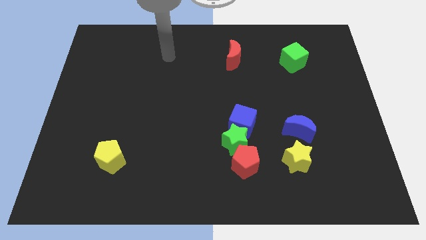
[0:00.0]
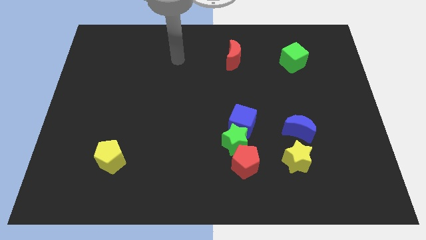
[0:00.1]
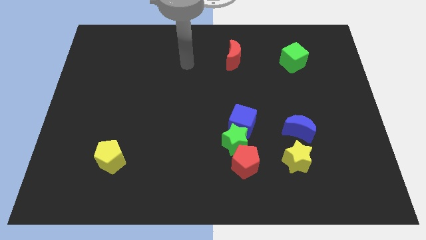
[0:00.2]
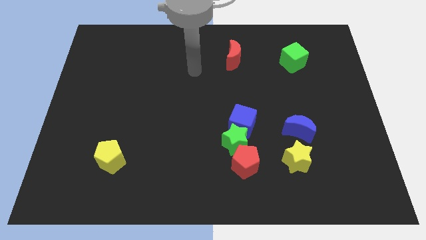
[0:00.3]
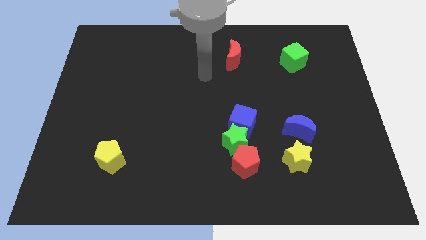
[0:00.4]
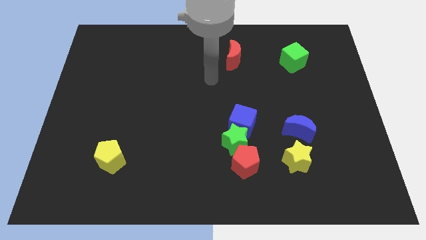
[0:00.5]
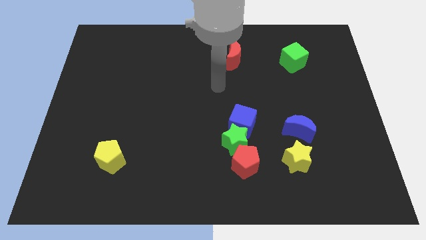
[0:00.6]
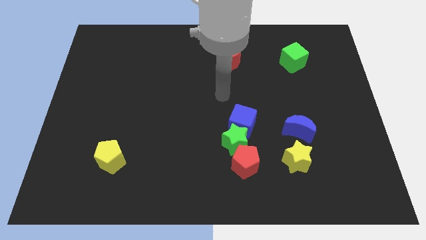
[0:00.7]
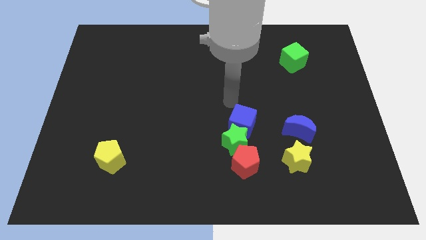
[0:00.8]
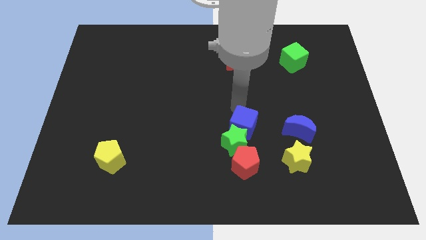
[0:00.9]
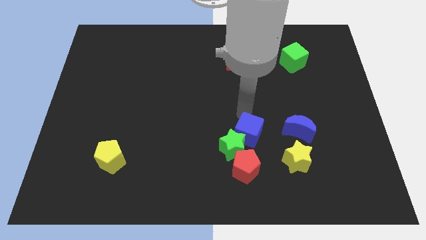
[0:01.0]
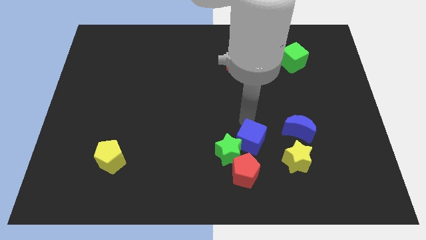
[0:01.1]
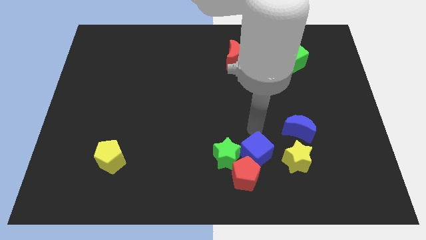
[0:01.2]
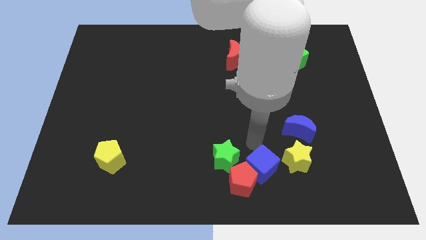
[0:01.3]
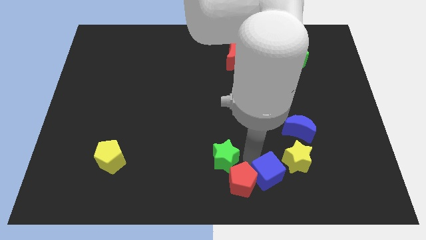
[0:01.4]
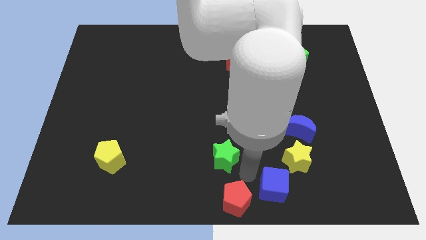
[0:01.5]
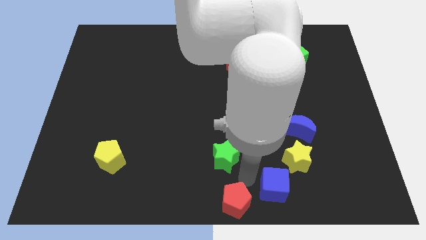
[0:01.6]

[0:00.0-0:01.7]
separate the green star from the red pentagon and blue cube

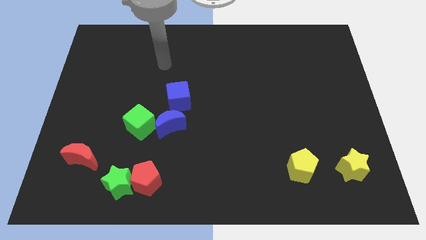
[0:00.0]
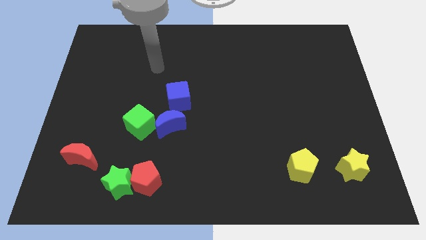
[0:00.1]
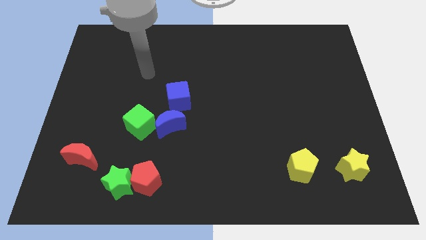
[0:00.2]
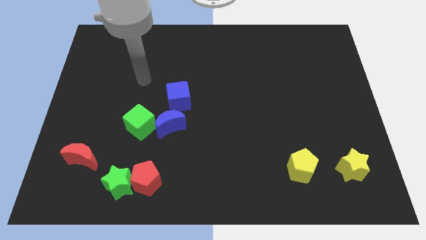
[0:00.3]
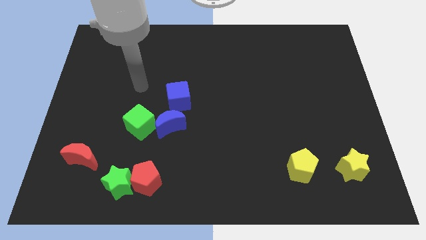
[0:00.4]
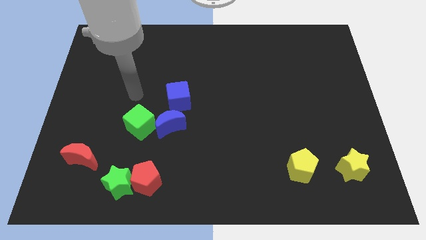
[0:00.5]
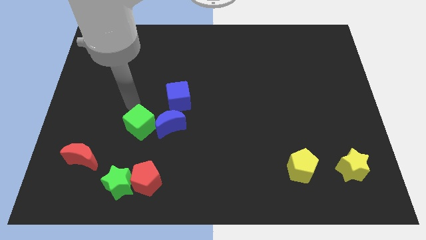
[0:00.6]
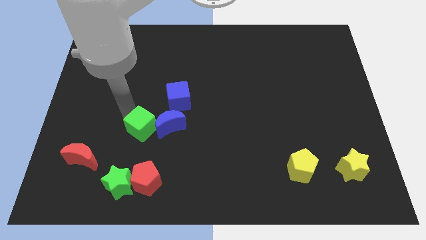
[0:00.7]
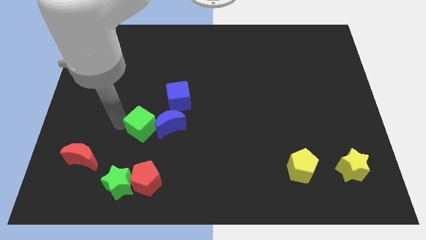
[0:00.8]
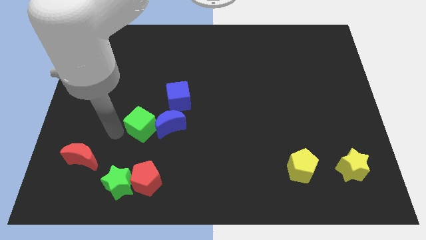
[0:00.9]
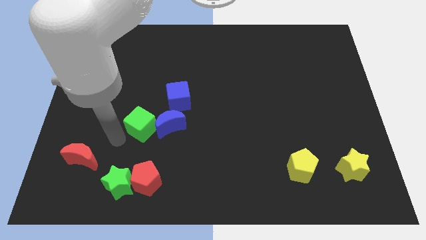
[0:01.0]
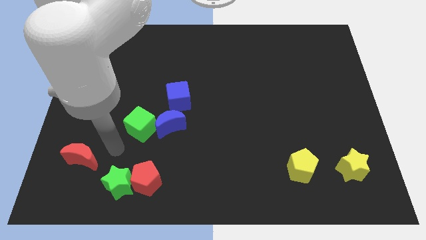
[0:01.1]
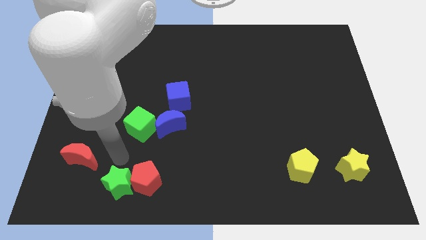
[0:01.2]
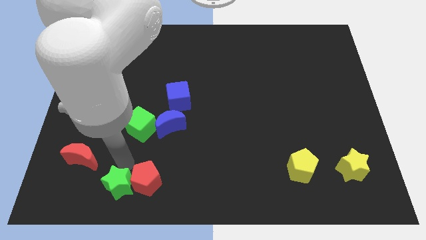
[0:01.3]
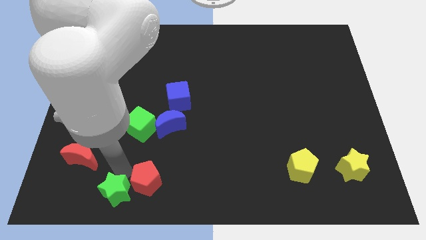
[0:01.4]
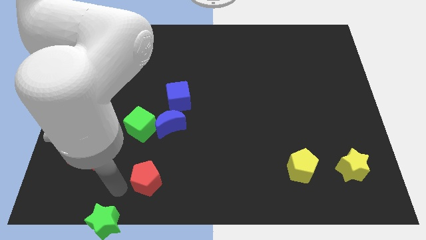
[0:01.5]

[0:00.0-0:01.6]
pull the red pentagon apart from the green star

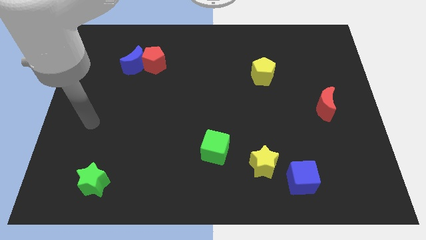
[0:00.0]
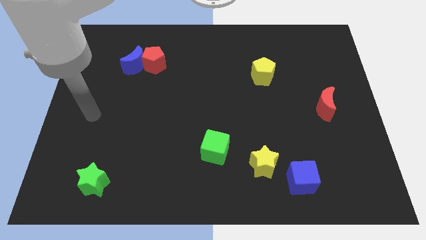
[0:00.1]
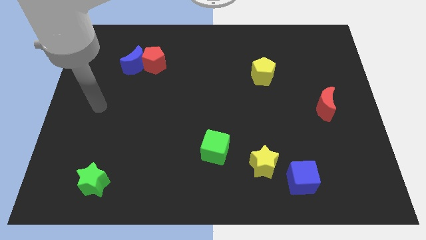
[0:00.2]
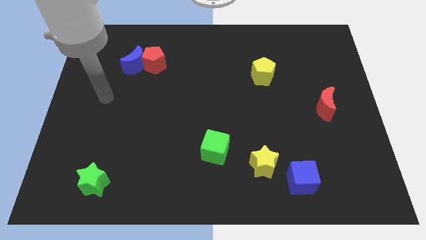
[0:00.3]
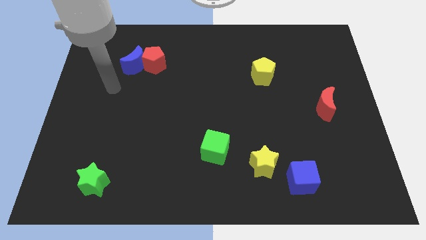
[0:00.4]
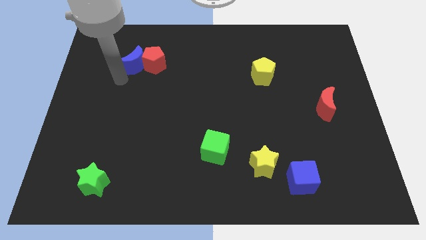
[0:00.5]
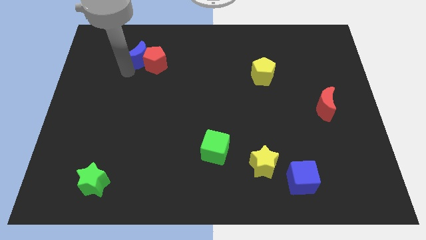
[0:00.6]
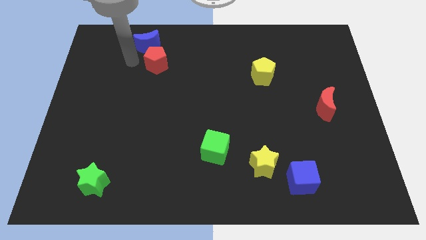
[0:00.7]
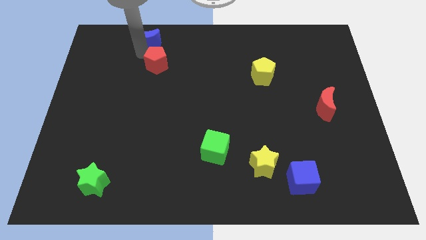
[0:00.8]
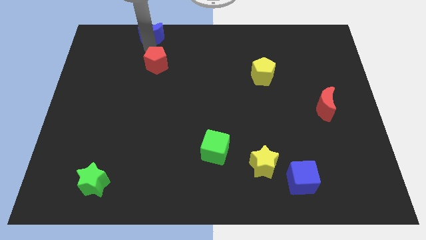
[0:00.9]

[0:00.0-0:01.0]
move the red pentagon away from the blue moon

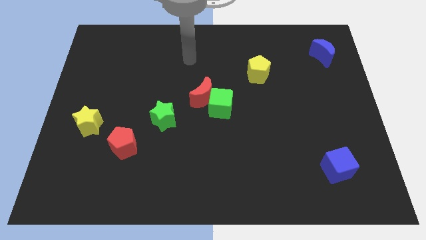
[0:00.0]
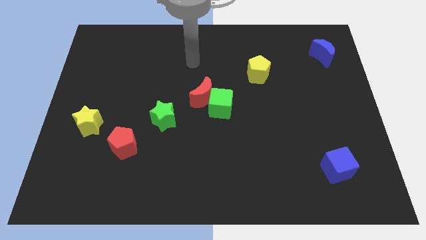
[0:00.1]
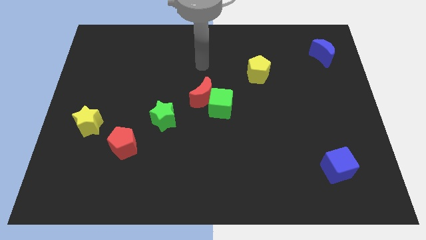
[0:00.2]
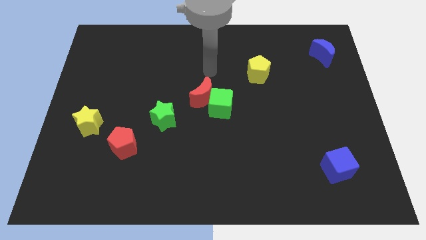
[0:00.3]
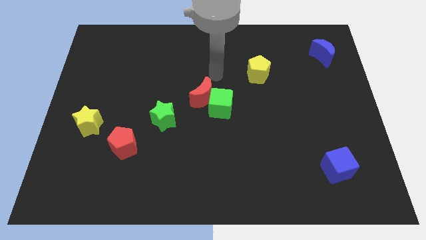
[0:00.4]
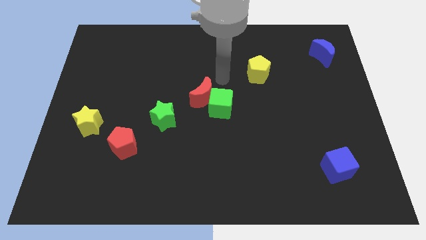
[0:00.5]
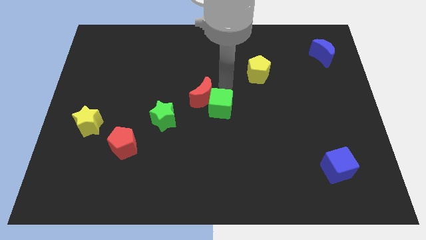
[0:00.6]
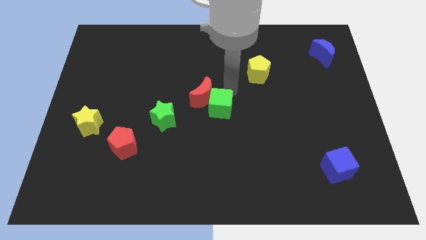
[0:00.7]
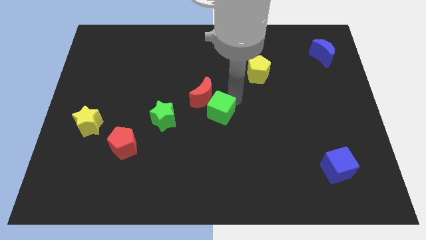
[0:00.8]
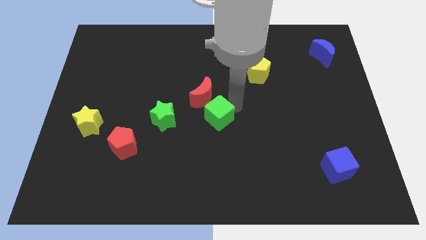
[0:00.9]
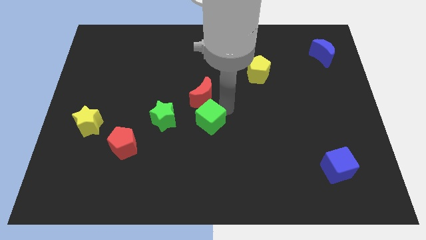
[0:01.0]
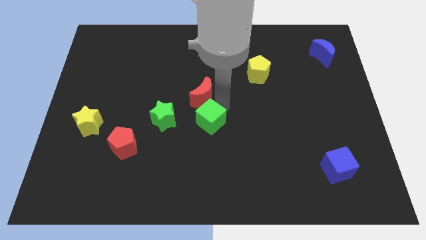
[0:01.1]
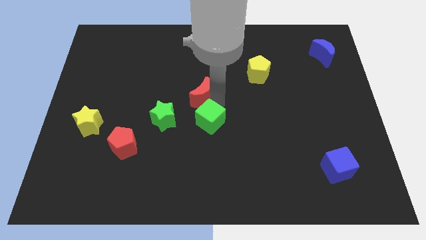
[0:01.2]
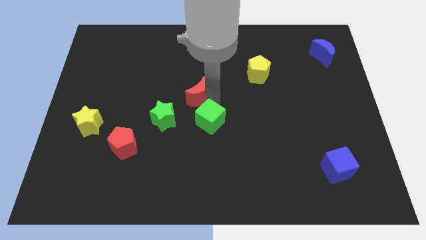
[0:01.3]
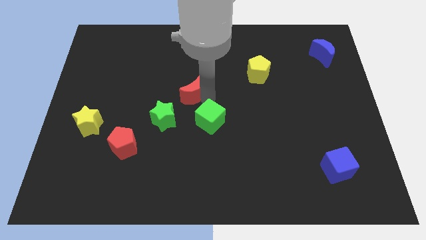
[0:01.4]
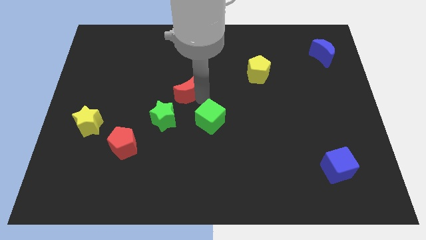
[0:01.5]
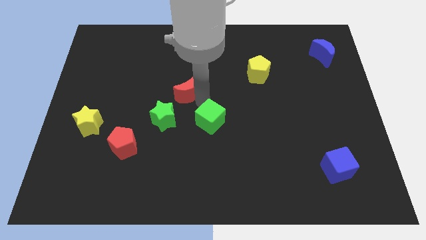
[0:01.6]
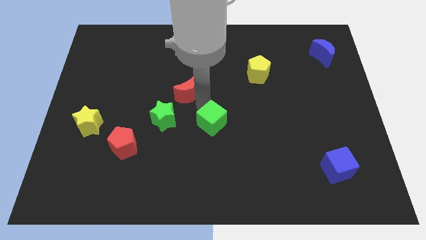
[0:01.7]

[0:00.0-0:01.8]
pull the red moon apart from the green cube

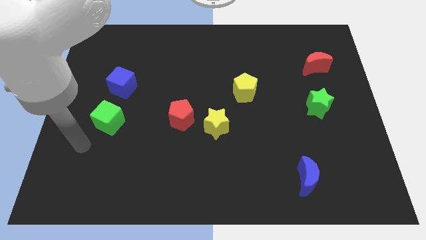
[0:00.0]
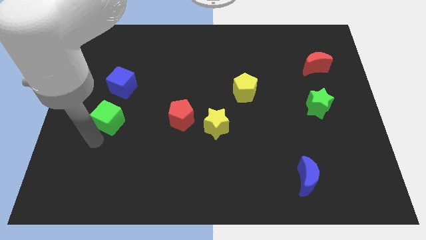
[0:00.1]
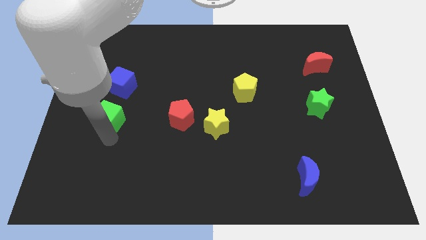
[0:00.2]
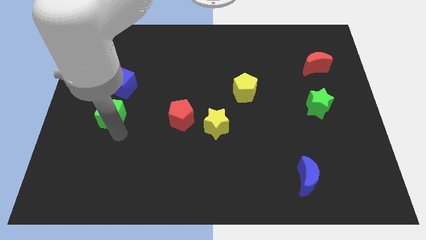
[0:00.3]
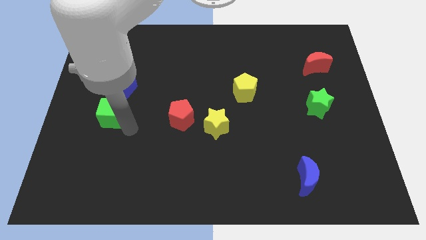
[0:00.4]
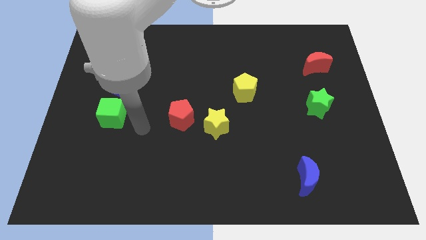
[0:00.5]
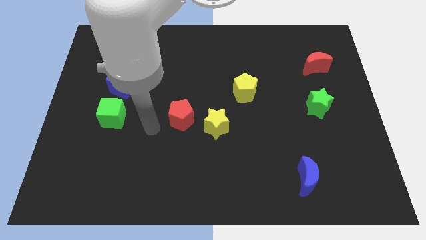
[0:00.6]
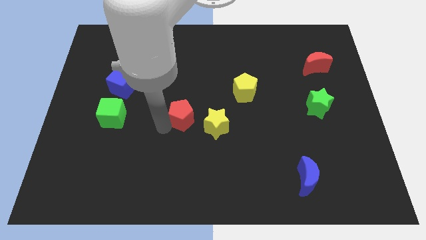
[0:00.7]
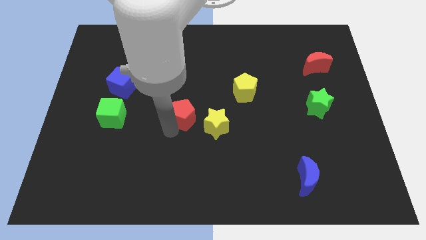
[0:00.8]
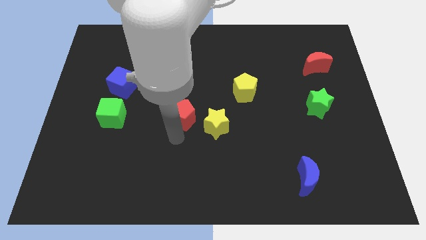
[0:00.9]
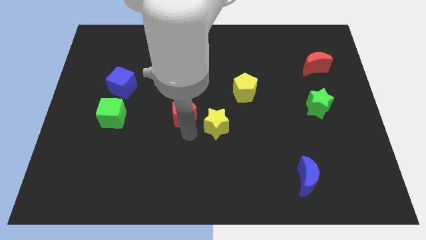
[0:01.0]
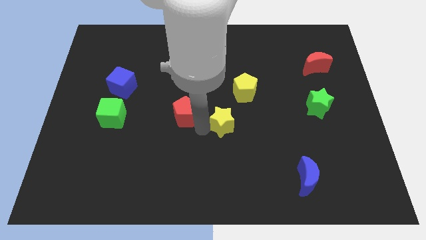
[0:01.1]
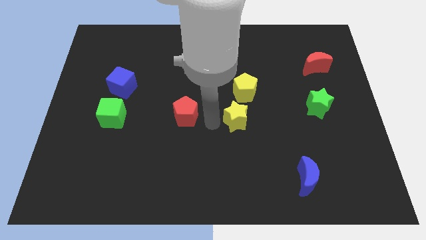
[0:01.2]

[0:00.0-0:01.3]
separate the red pentagon from the yellow star

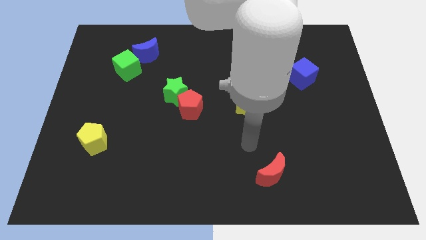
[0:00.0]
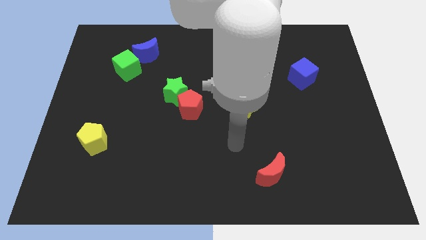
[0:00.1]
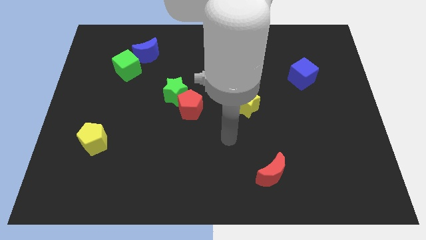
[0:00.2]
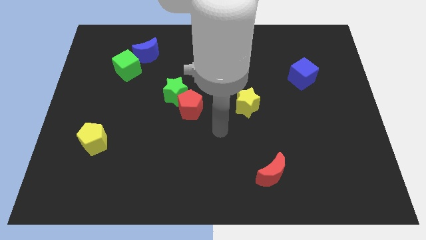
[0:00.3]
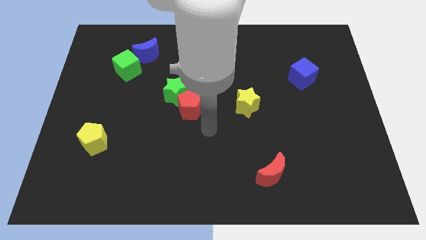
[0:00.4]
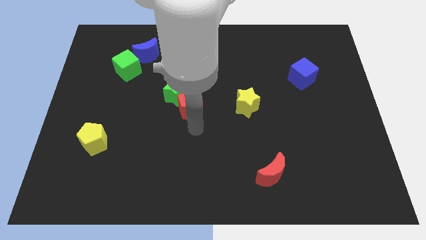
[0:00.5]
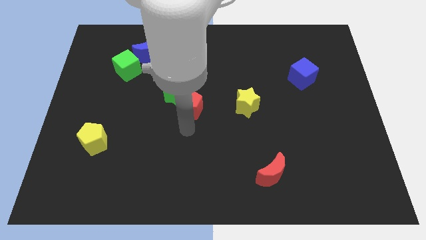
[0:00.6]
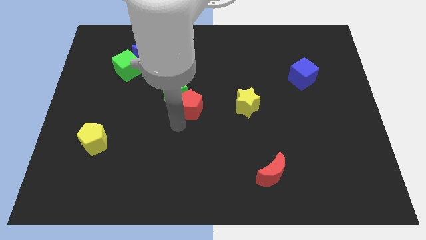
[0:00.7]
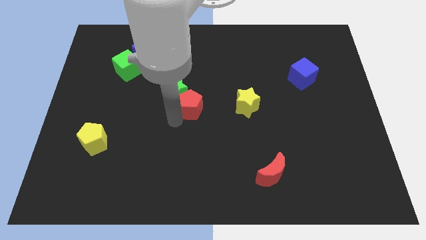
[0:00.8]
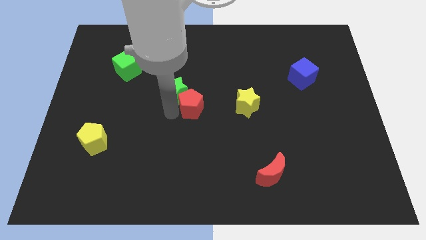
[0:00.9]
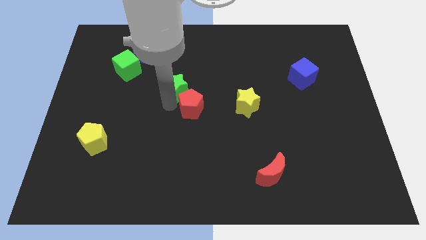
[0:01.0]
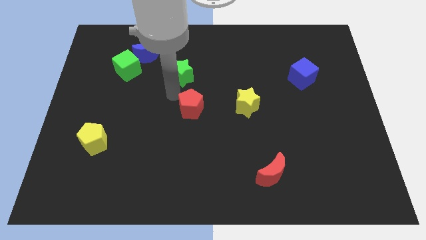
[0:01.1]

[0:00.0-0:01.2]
separate the red pentagon from the green star

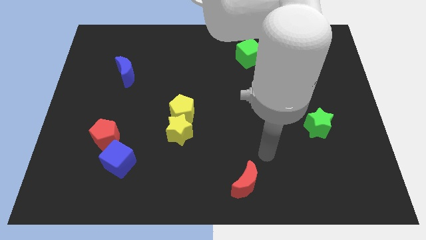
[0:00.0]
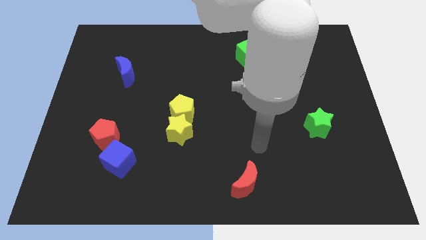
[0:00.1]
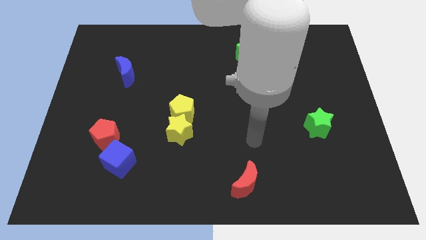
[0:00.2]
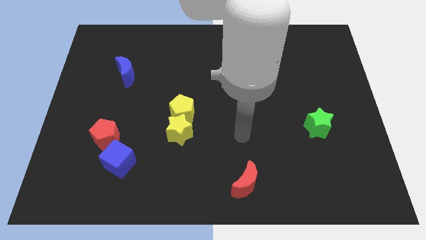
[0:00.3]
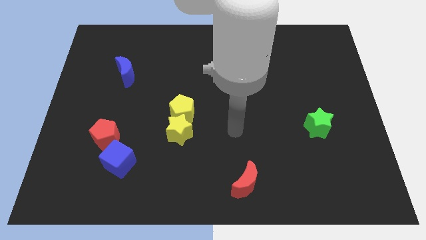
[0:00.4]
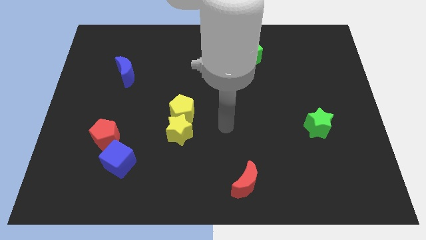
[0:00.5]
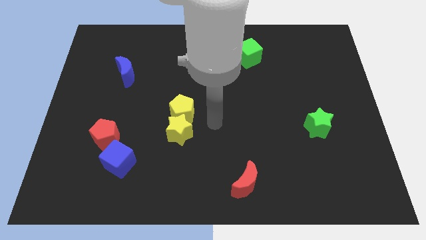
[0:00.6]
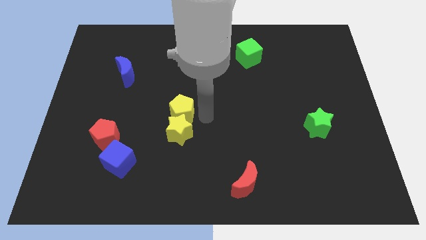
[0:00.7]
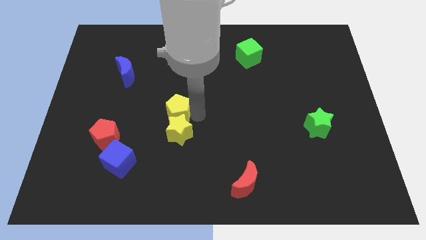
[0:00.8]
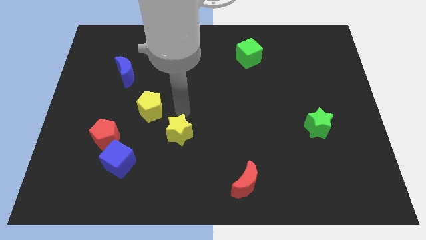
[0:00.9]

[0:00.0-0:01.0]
separate the yellow star from the yellow pentagon
